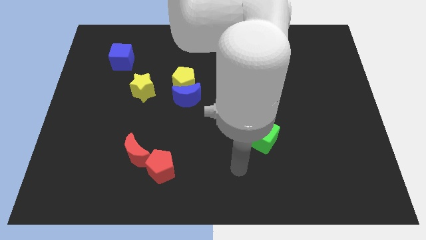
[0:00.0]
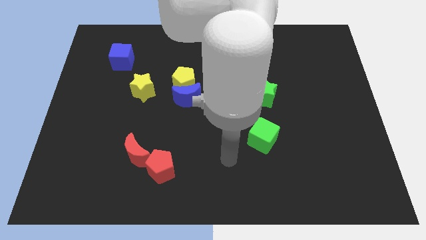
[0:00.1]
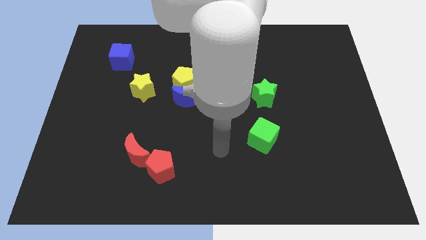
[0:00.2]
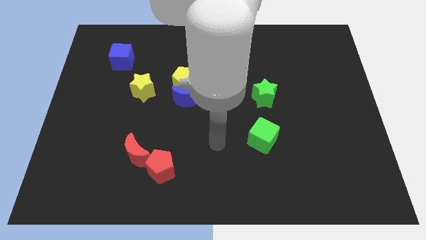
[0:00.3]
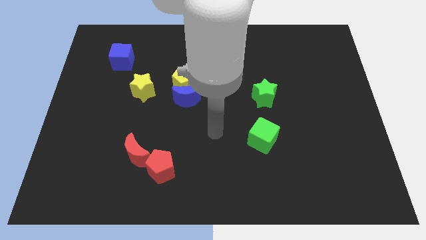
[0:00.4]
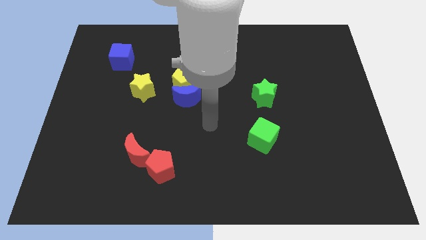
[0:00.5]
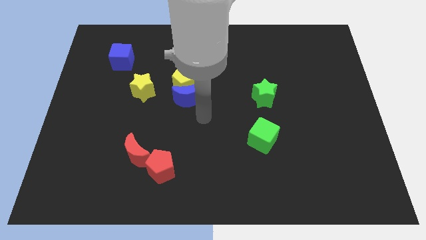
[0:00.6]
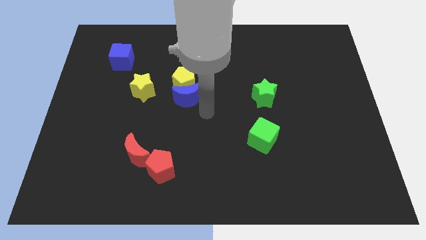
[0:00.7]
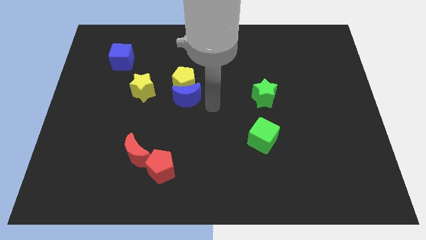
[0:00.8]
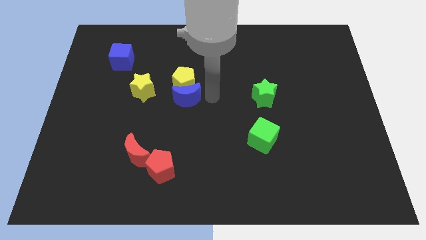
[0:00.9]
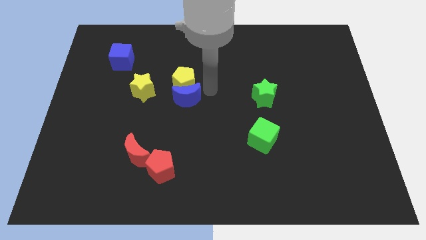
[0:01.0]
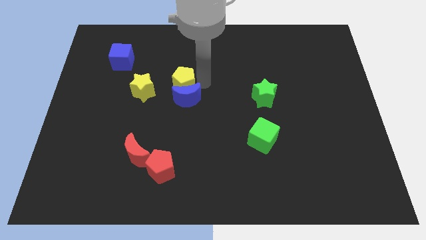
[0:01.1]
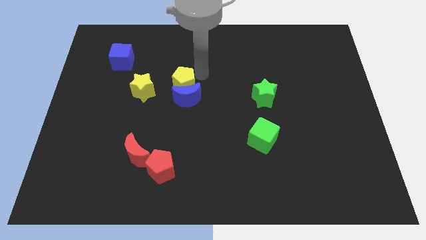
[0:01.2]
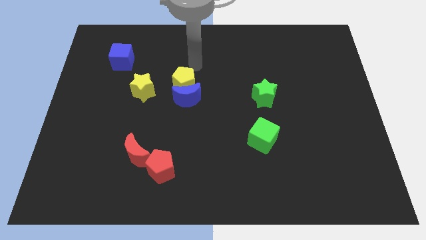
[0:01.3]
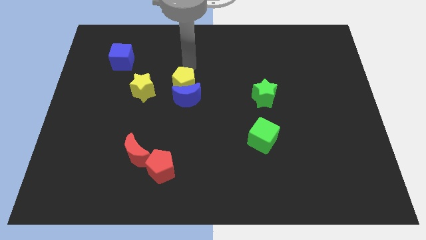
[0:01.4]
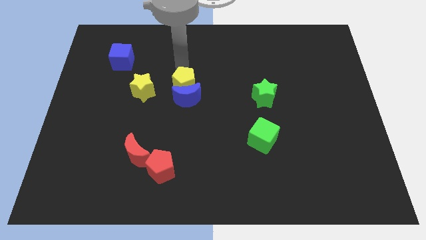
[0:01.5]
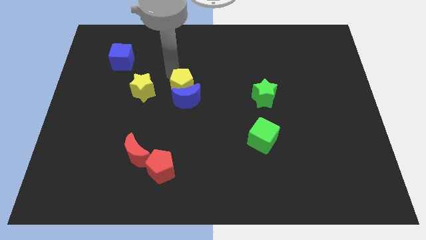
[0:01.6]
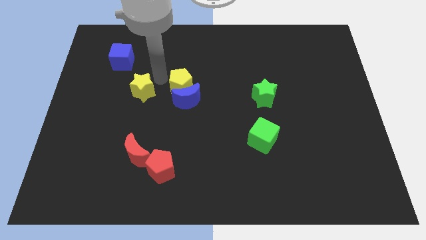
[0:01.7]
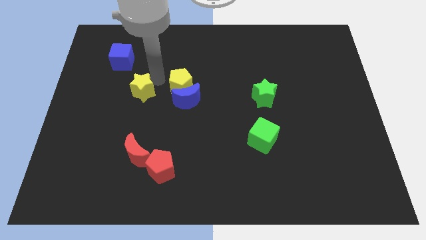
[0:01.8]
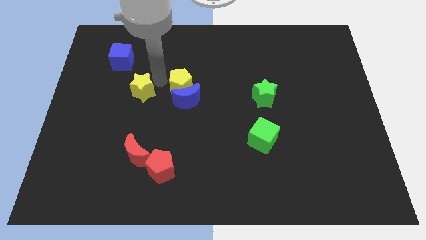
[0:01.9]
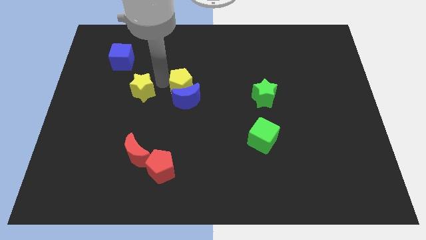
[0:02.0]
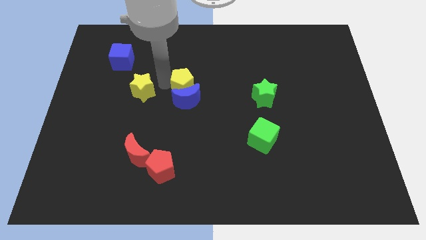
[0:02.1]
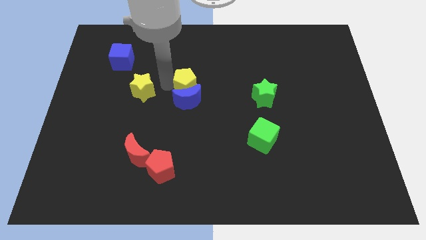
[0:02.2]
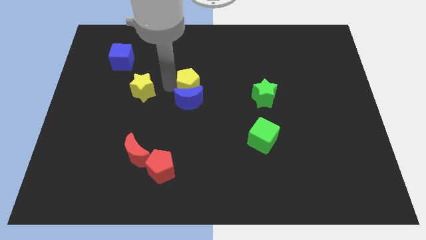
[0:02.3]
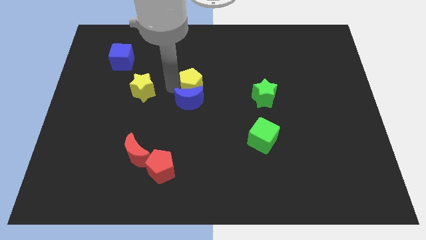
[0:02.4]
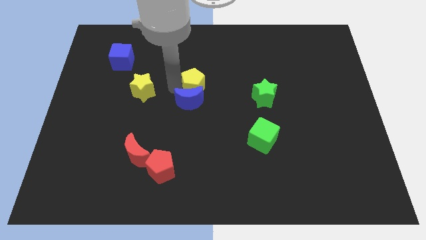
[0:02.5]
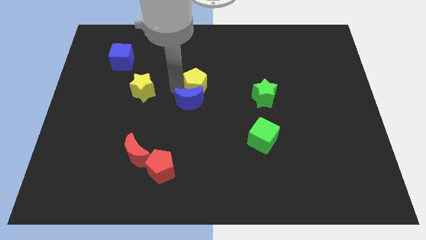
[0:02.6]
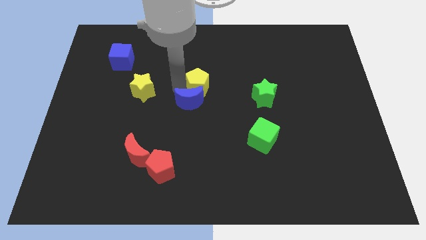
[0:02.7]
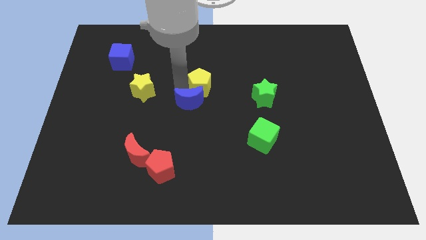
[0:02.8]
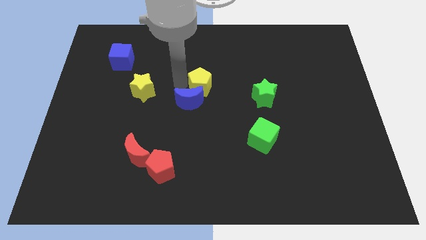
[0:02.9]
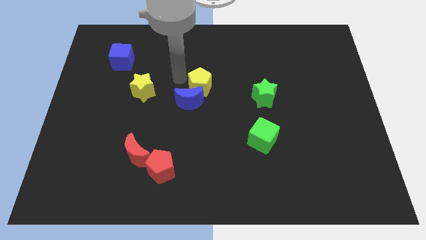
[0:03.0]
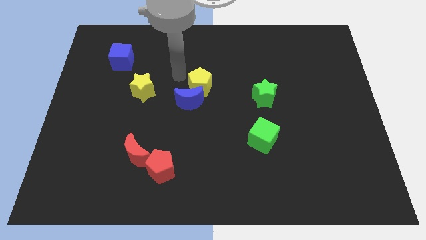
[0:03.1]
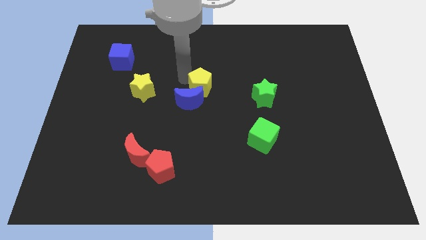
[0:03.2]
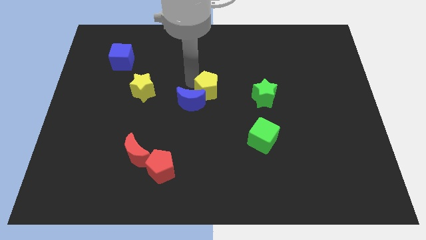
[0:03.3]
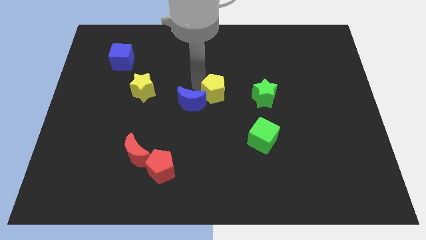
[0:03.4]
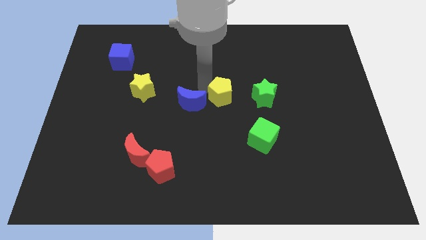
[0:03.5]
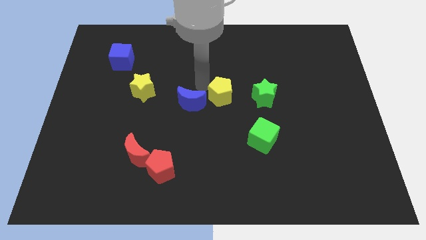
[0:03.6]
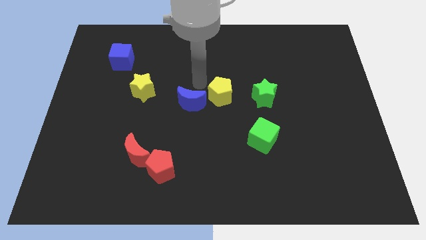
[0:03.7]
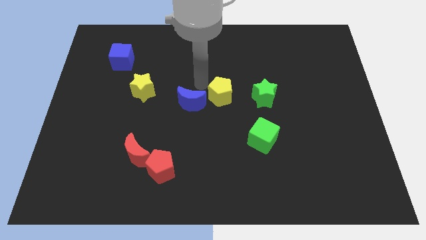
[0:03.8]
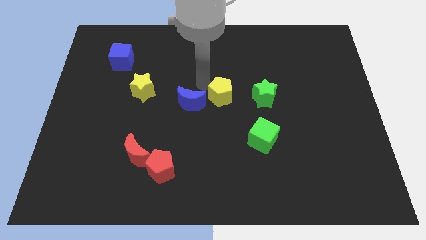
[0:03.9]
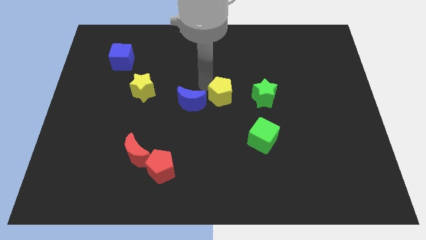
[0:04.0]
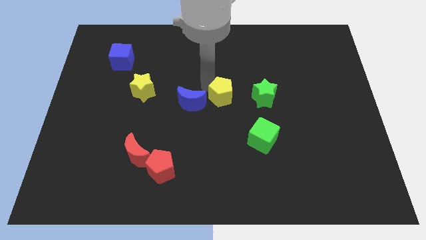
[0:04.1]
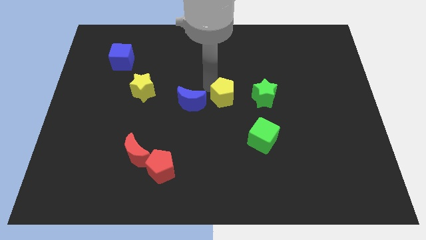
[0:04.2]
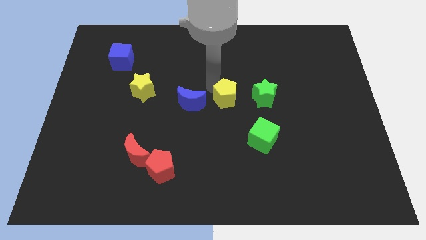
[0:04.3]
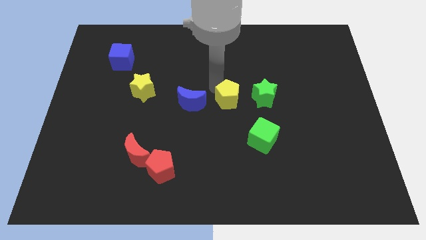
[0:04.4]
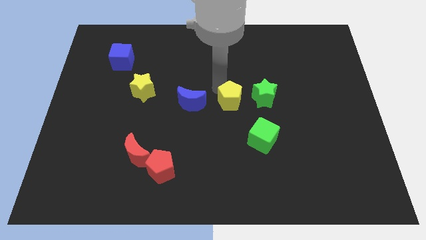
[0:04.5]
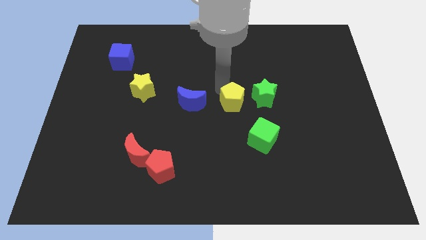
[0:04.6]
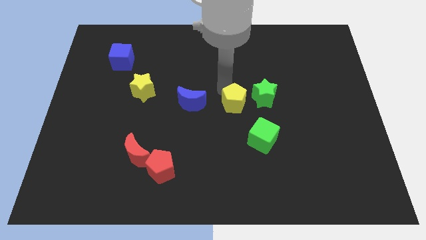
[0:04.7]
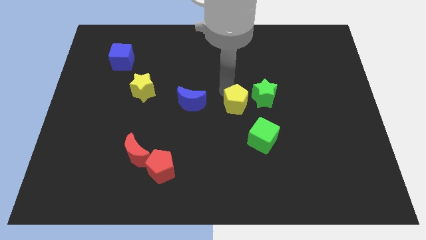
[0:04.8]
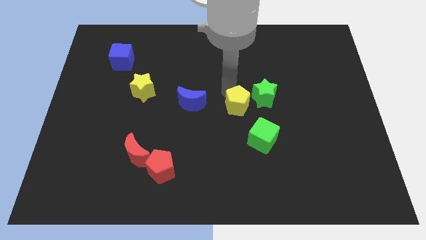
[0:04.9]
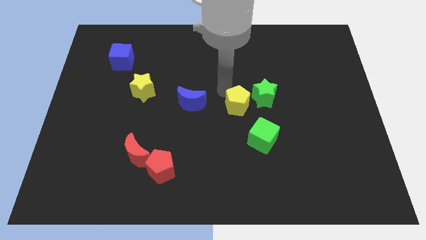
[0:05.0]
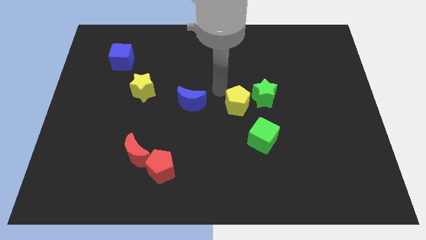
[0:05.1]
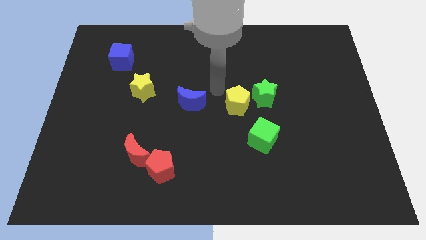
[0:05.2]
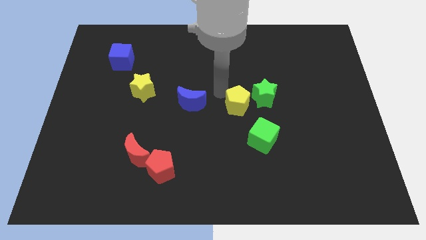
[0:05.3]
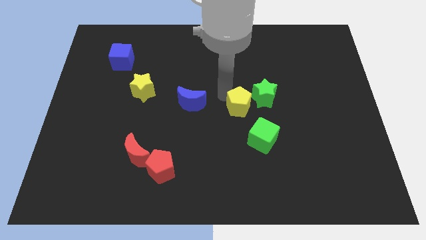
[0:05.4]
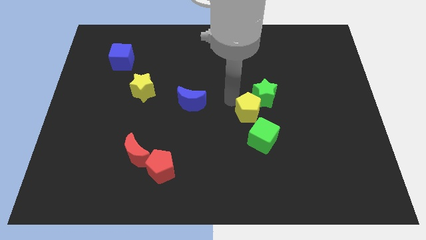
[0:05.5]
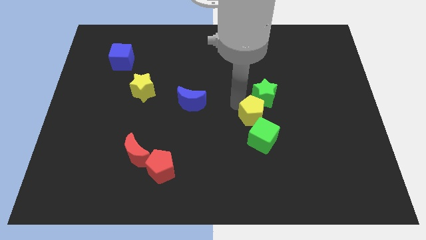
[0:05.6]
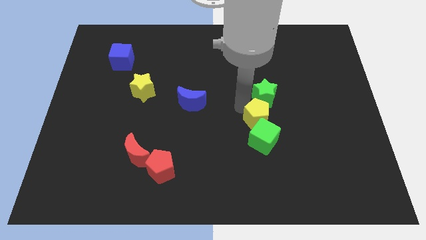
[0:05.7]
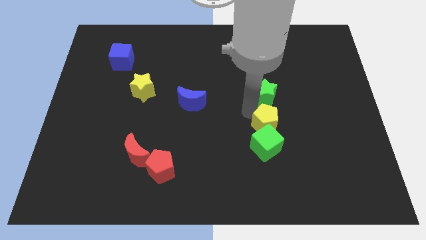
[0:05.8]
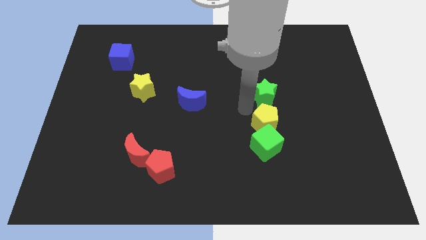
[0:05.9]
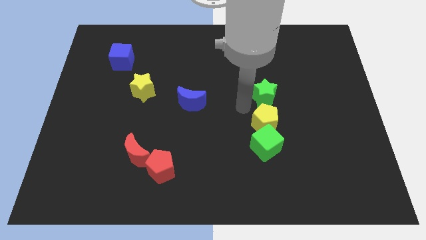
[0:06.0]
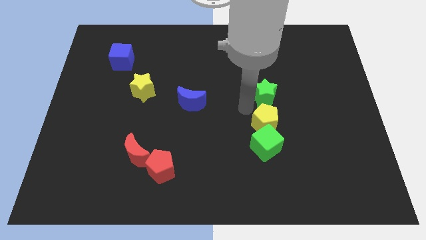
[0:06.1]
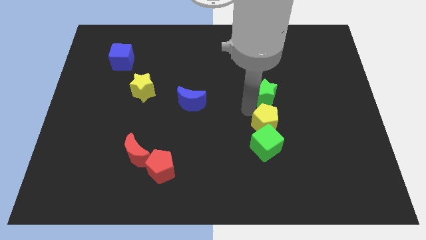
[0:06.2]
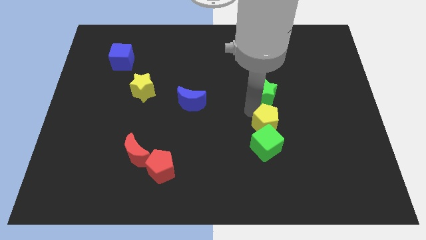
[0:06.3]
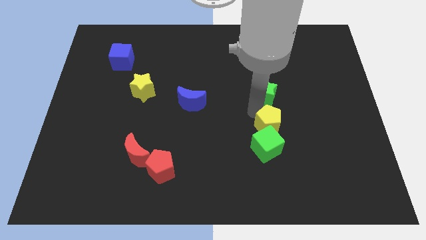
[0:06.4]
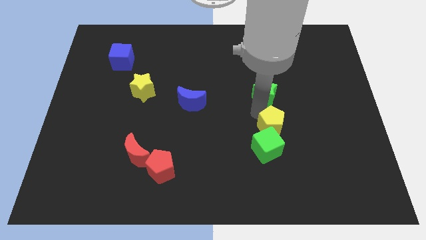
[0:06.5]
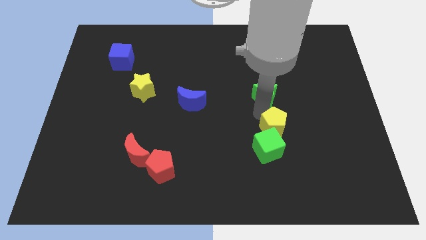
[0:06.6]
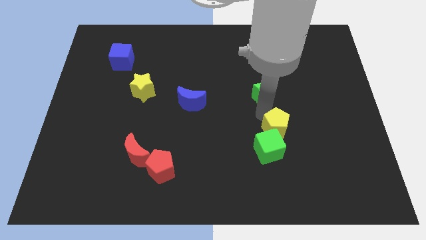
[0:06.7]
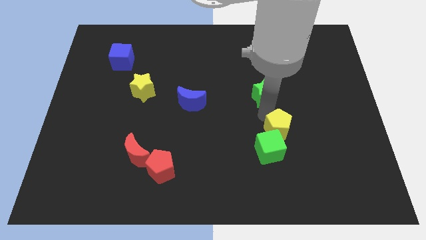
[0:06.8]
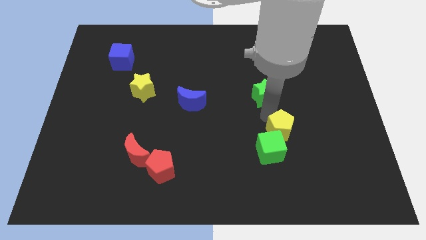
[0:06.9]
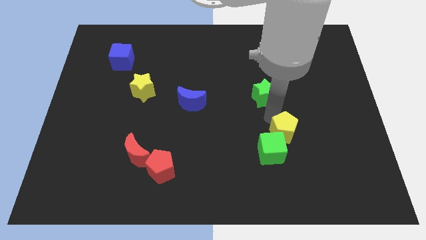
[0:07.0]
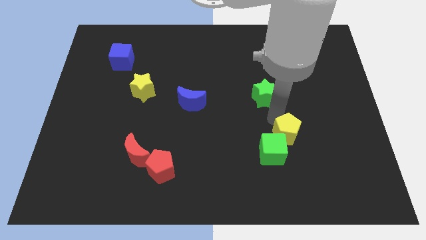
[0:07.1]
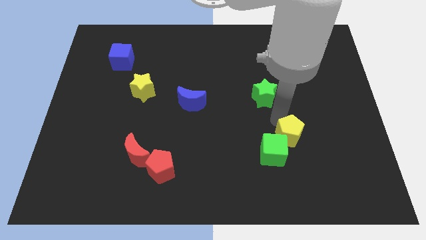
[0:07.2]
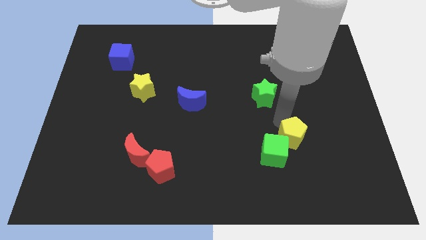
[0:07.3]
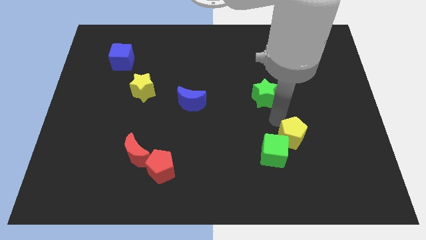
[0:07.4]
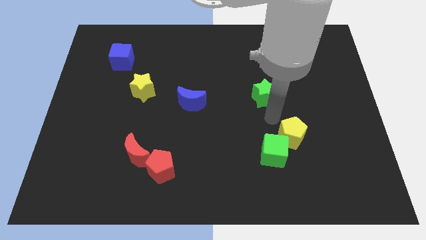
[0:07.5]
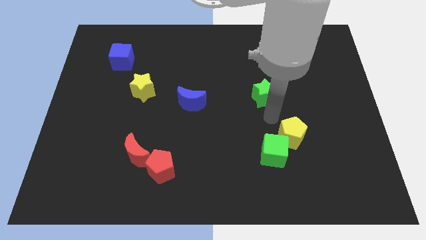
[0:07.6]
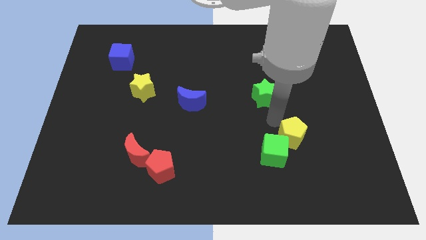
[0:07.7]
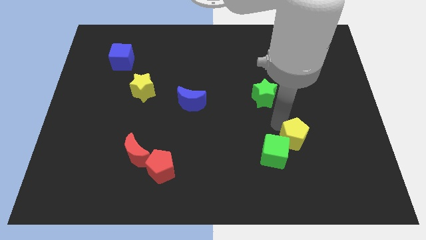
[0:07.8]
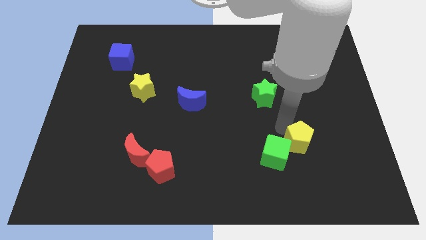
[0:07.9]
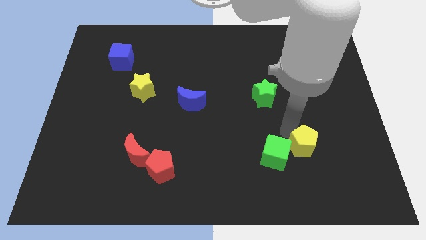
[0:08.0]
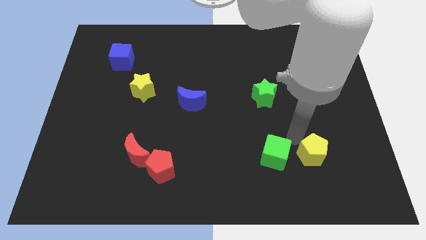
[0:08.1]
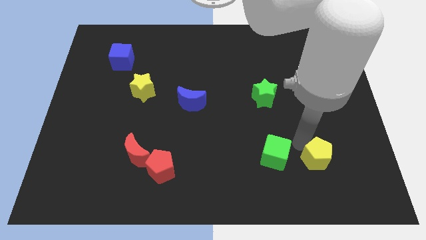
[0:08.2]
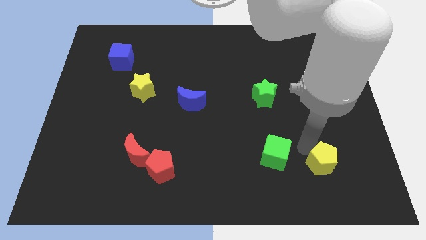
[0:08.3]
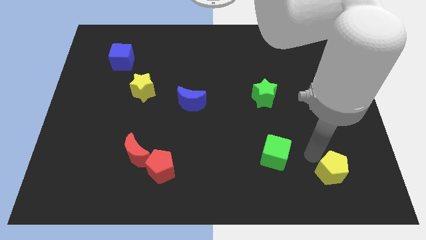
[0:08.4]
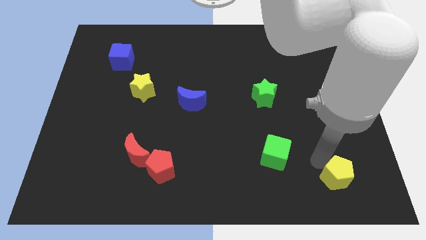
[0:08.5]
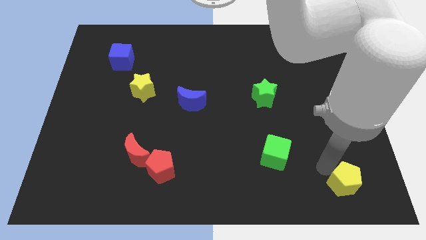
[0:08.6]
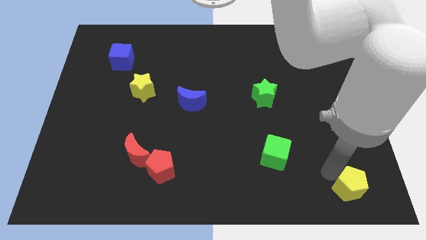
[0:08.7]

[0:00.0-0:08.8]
slide the yellow pentagon to the bottom right of the board
